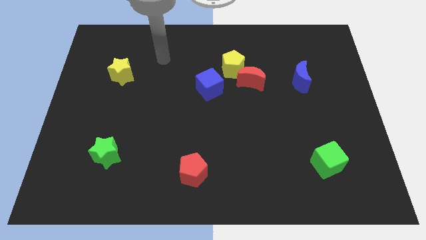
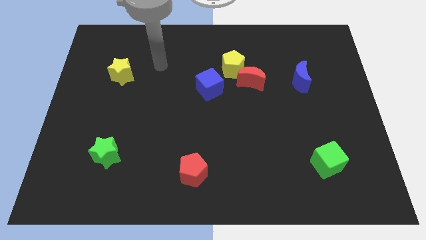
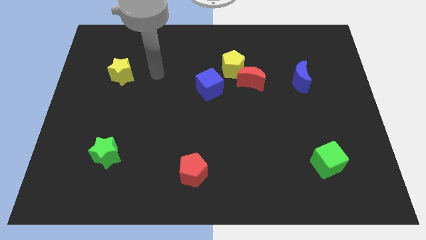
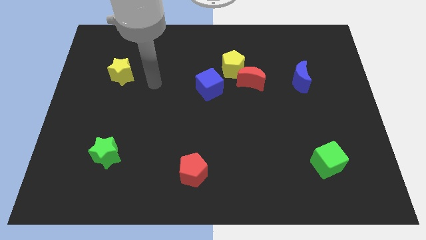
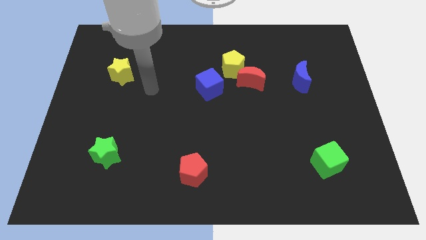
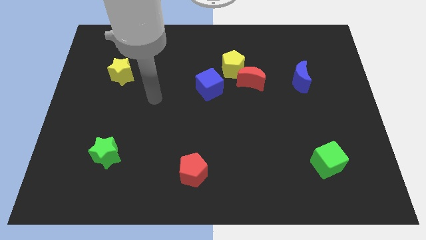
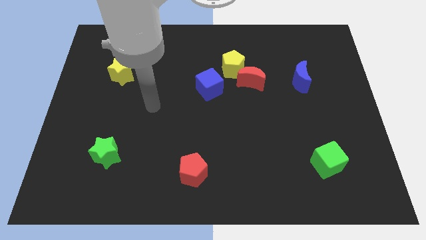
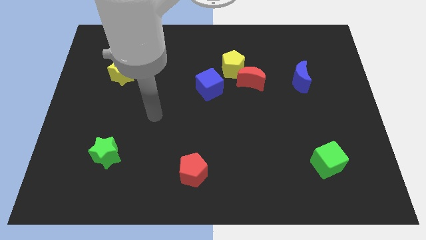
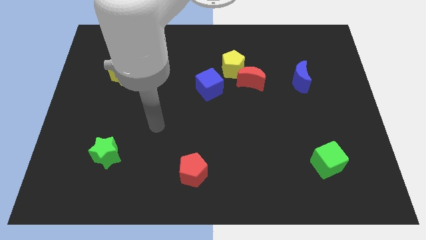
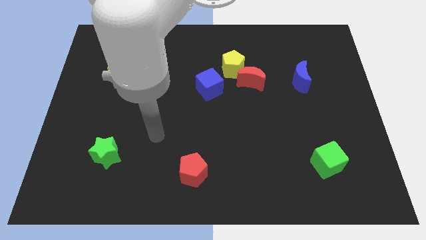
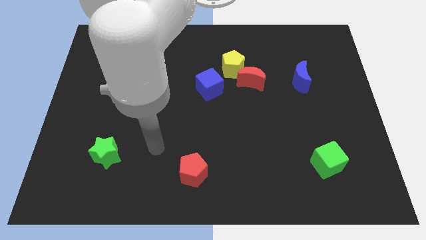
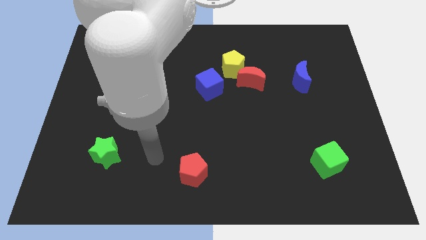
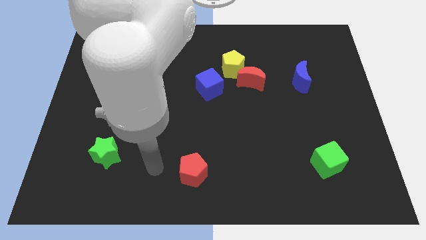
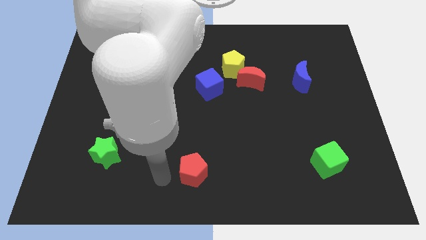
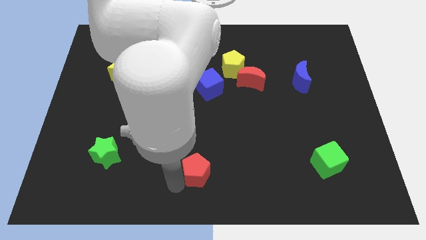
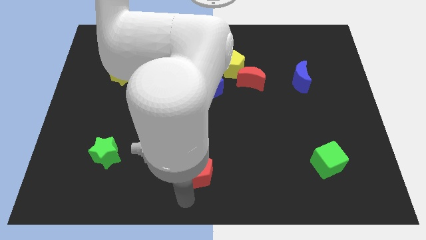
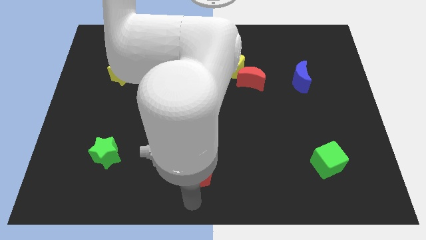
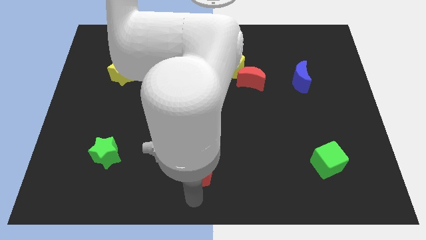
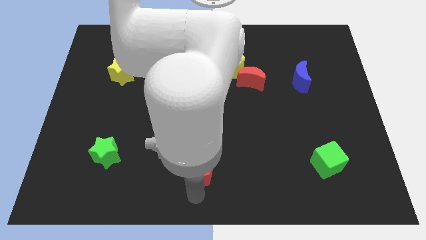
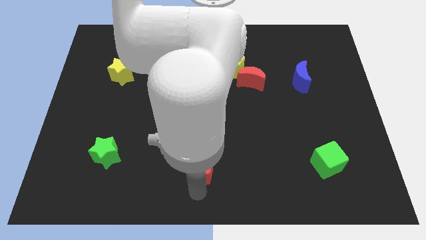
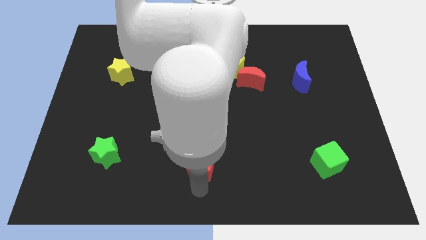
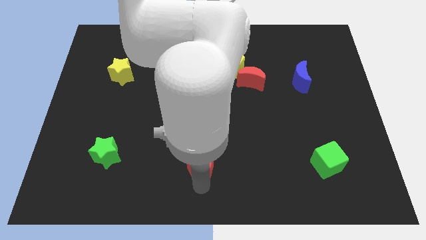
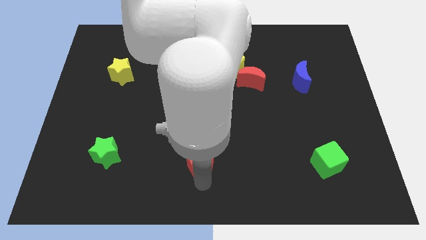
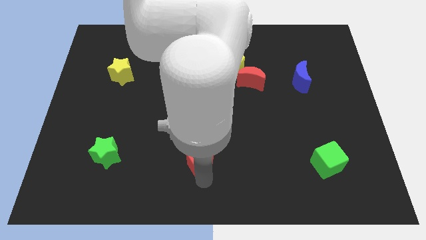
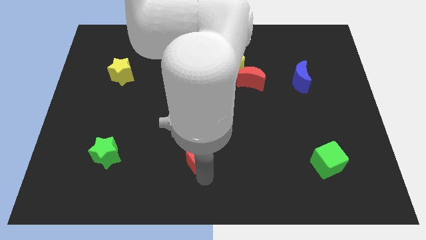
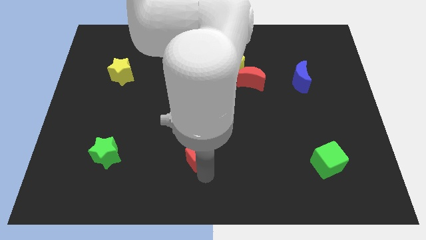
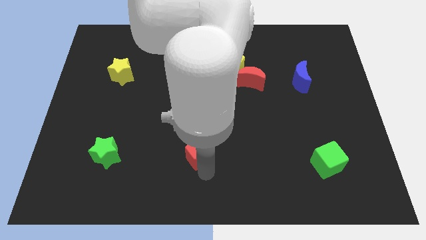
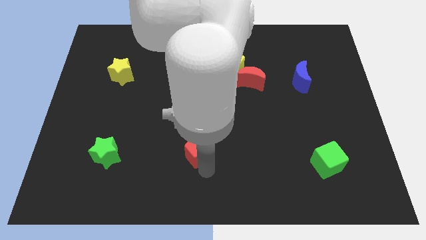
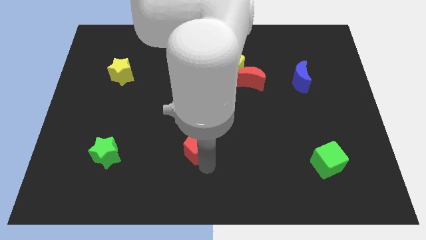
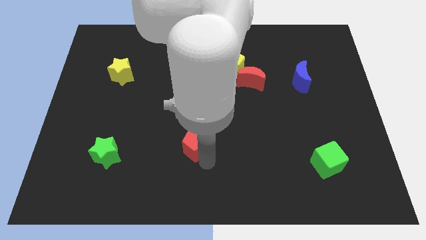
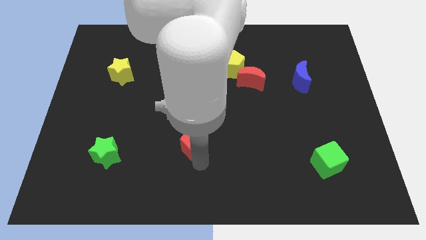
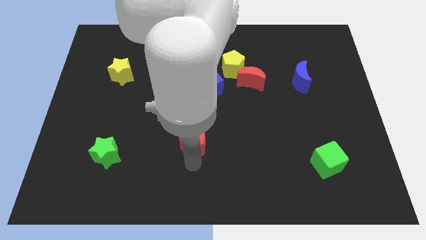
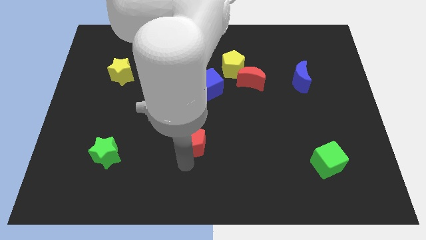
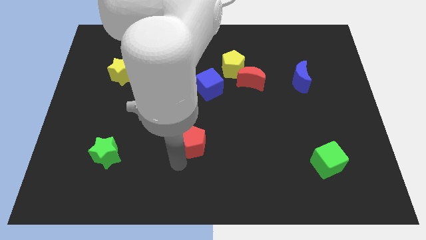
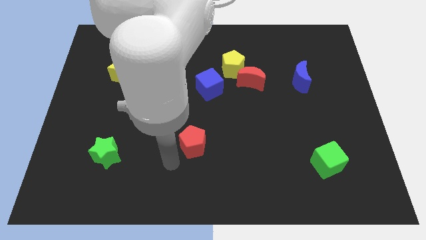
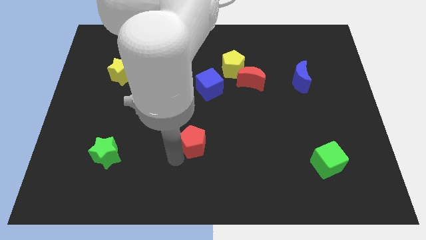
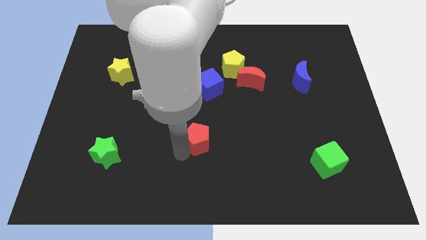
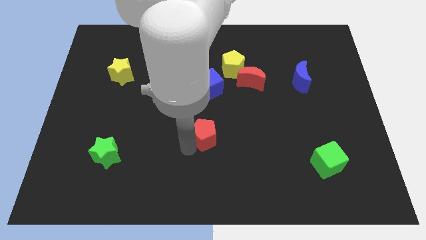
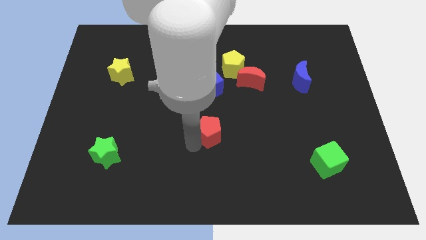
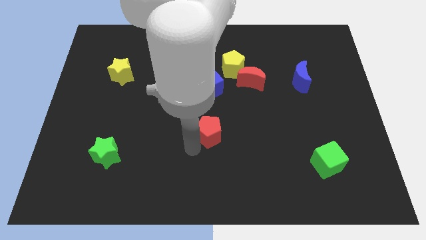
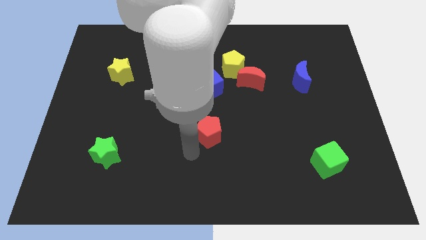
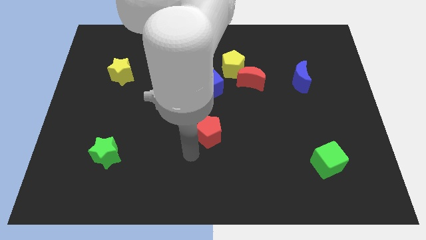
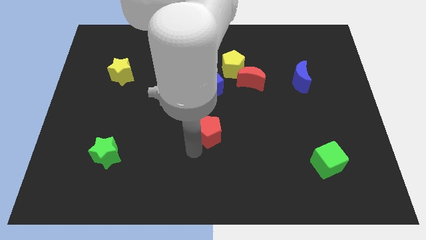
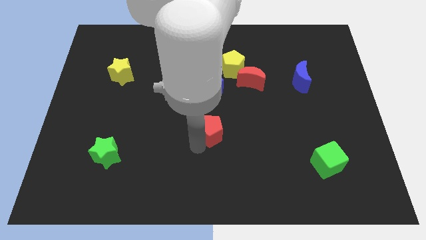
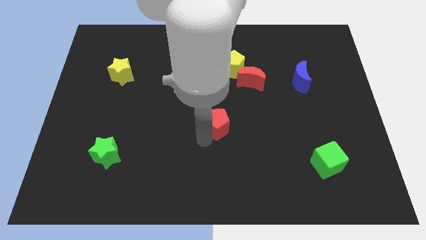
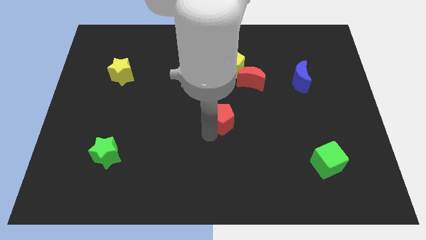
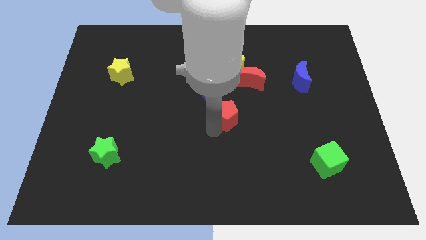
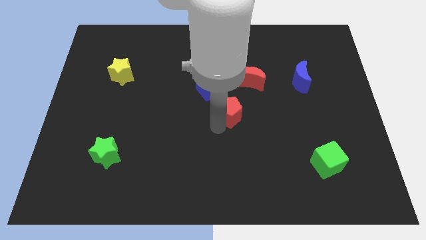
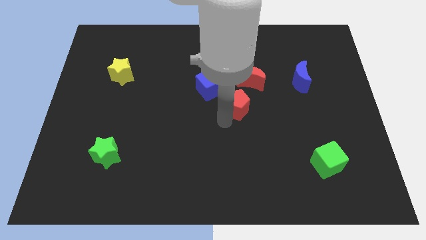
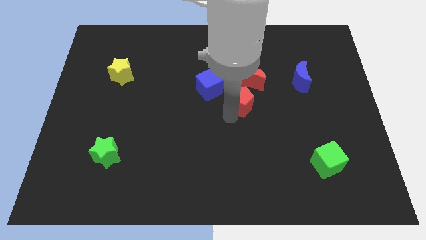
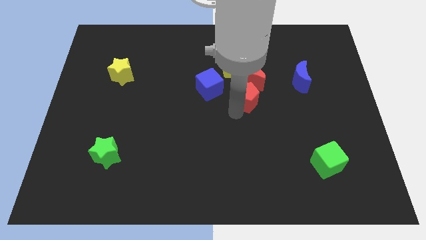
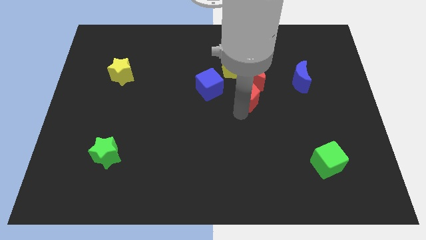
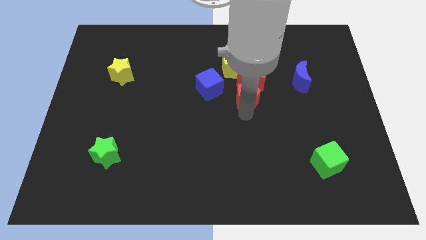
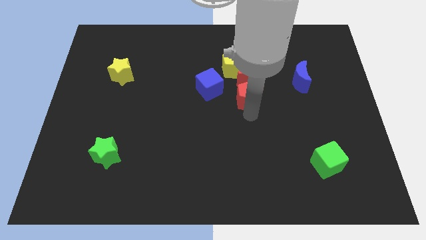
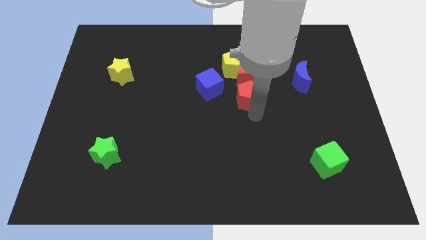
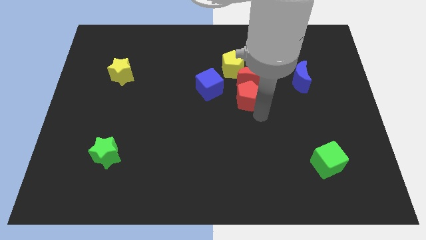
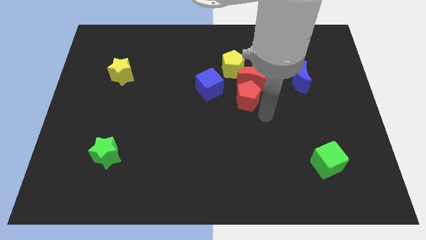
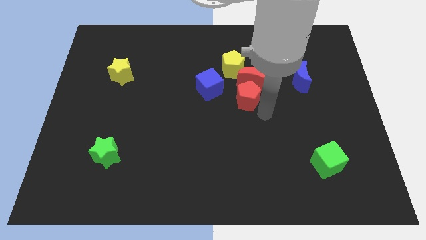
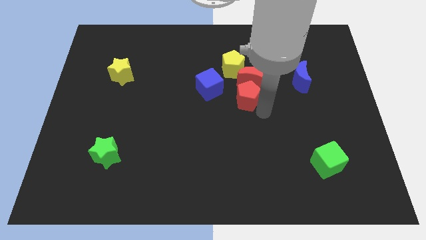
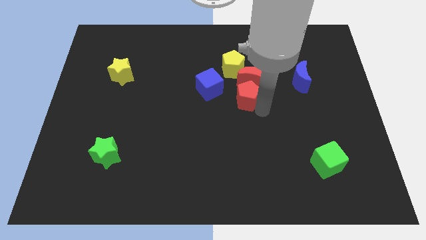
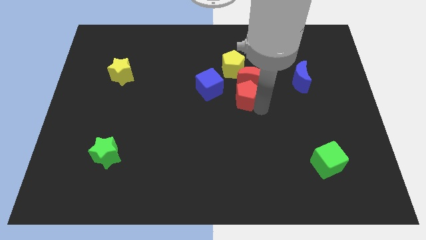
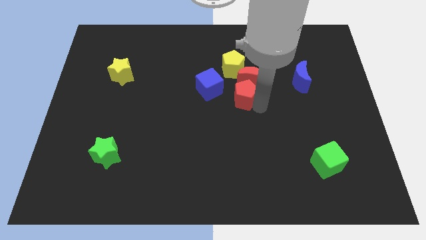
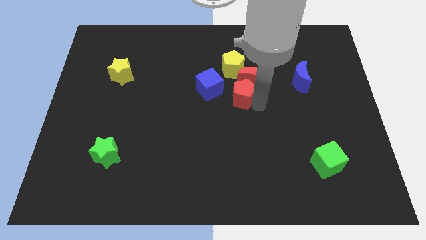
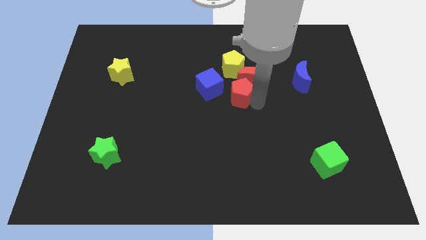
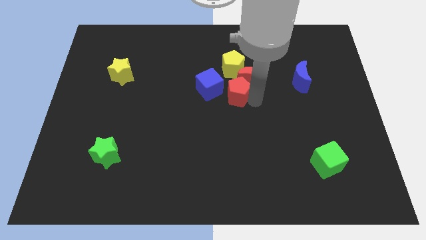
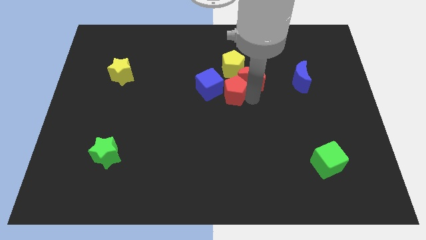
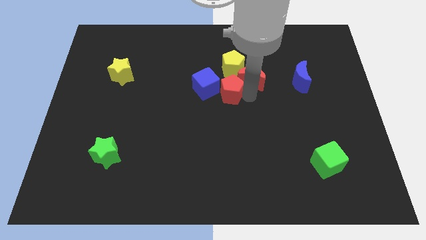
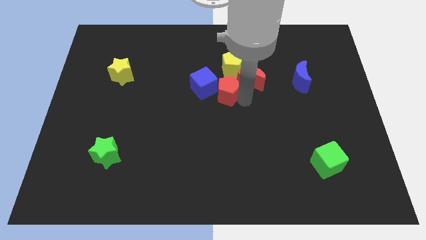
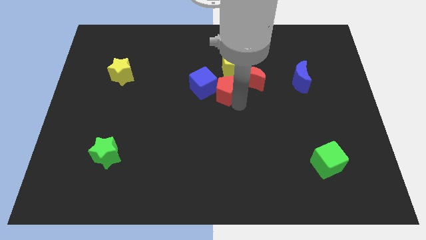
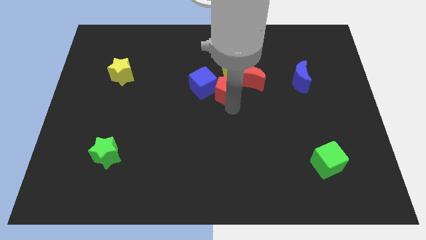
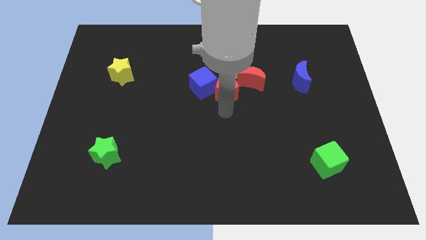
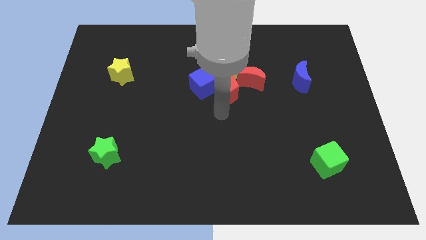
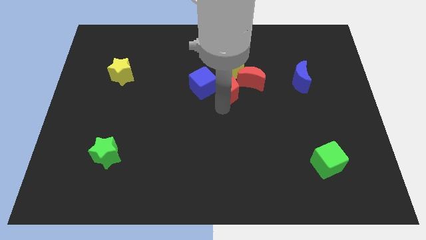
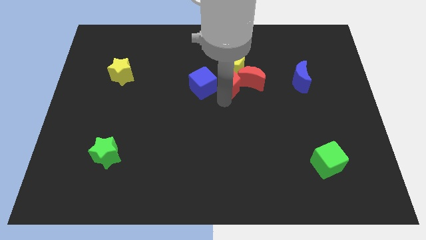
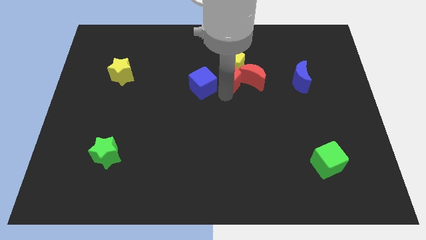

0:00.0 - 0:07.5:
put the red pentagon towards the yellow pentagon
